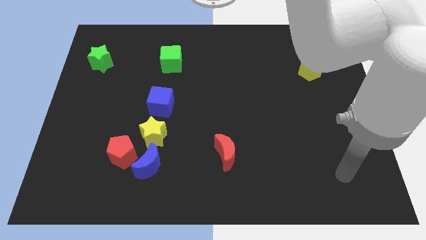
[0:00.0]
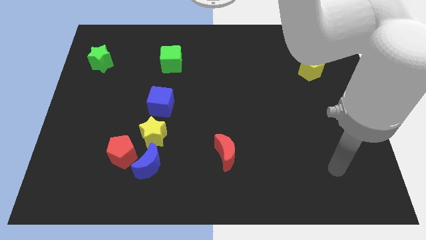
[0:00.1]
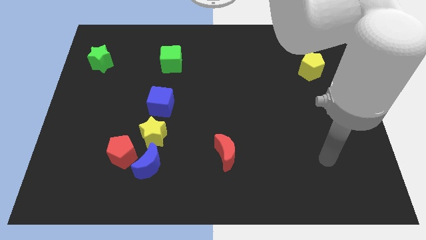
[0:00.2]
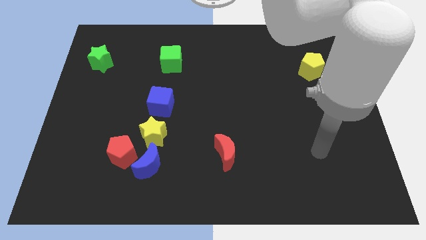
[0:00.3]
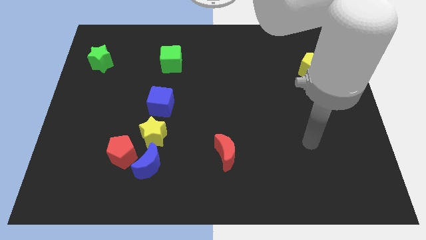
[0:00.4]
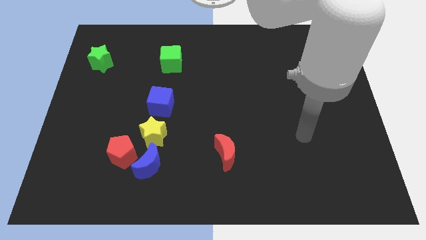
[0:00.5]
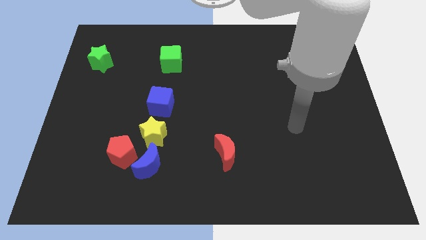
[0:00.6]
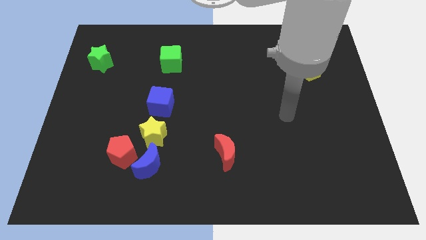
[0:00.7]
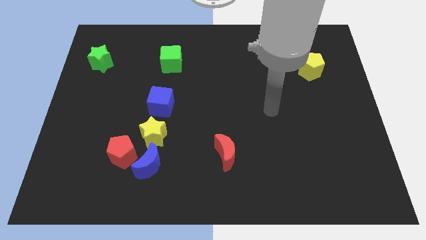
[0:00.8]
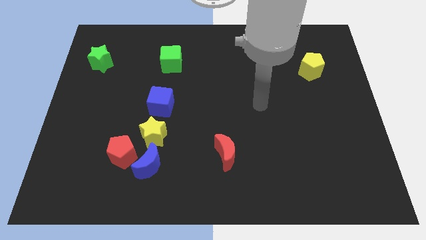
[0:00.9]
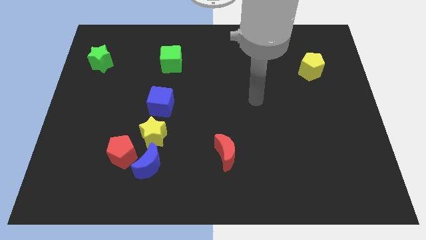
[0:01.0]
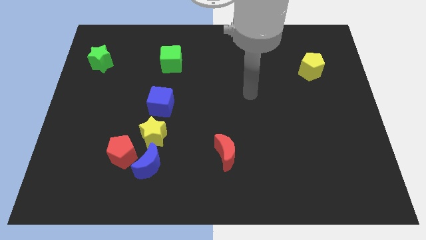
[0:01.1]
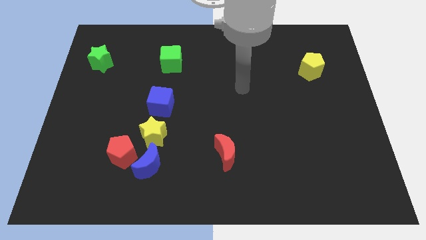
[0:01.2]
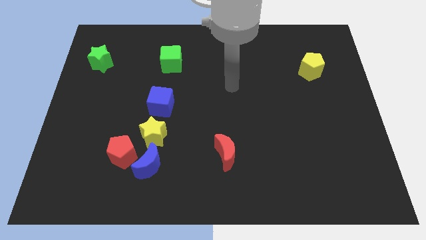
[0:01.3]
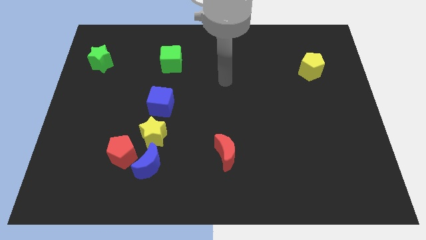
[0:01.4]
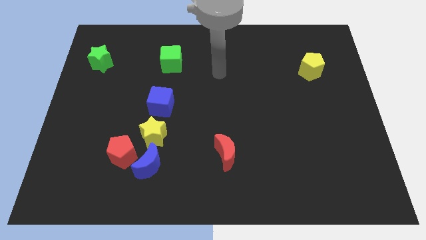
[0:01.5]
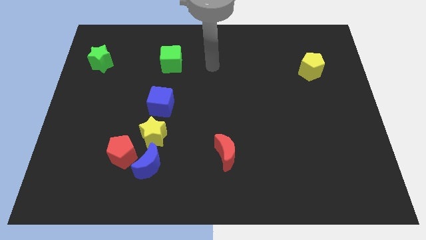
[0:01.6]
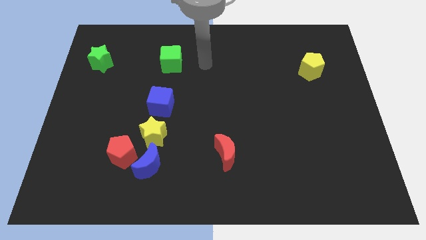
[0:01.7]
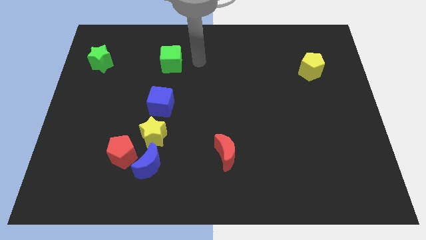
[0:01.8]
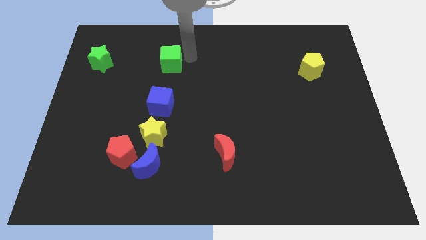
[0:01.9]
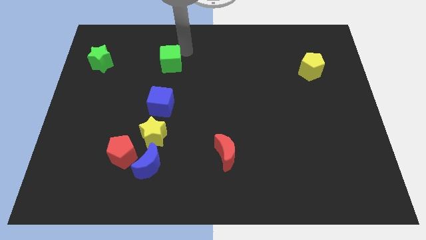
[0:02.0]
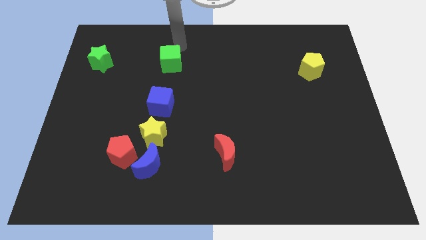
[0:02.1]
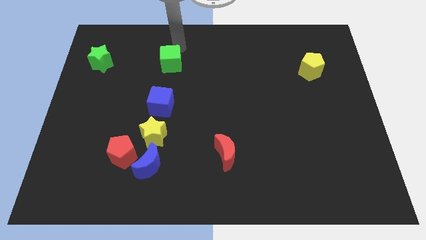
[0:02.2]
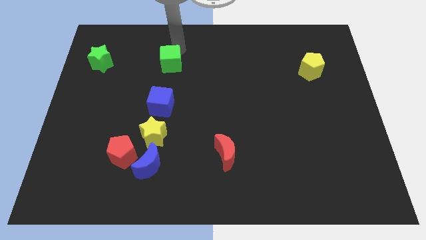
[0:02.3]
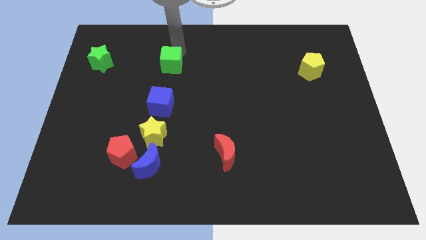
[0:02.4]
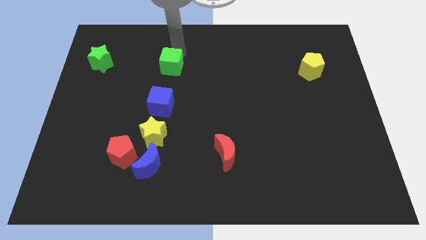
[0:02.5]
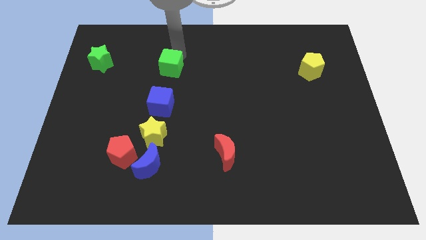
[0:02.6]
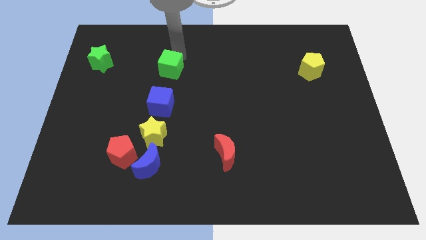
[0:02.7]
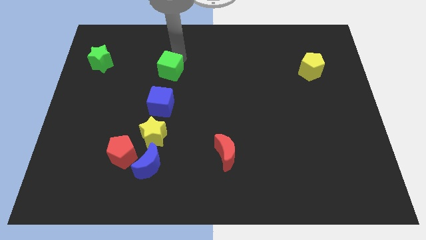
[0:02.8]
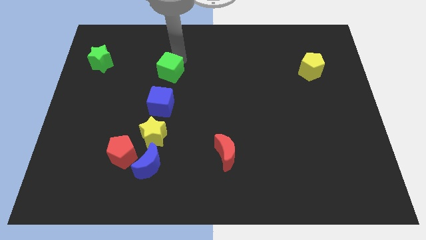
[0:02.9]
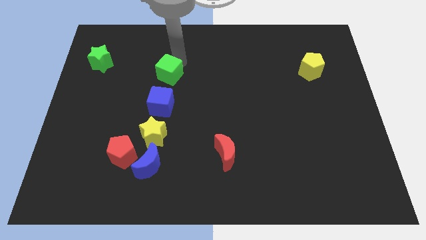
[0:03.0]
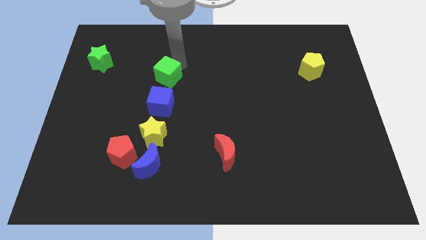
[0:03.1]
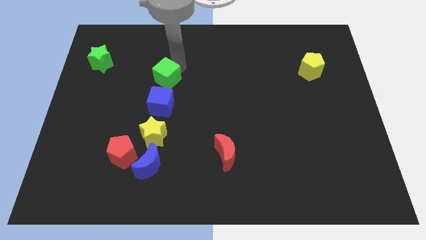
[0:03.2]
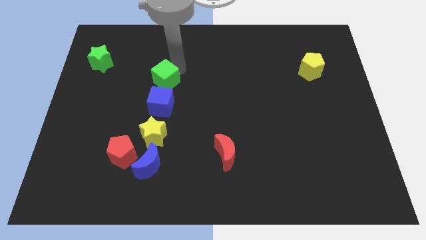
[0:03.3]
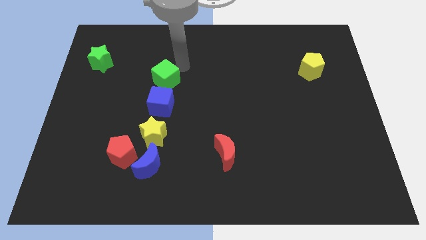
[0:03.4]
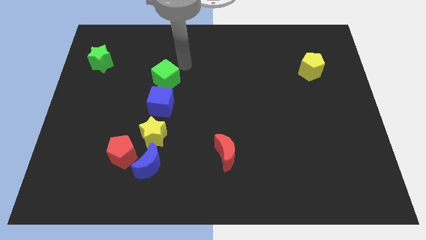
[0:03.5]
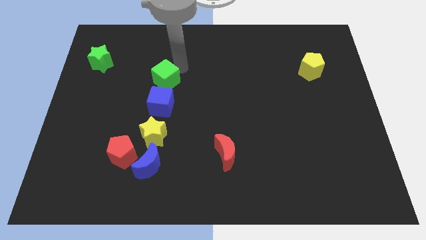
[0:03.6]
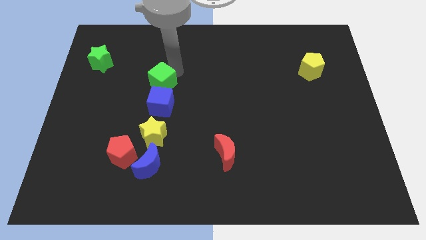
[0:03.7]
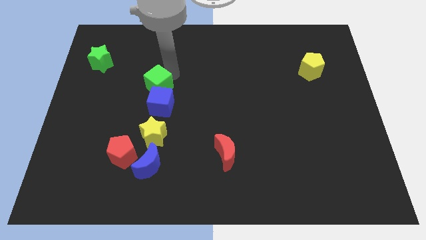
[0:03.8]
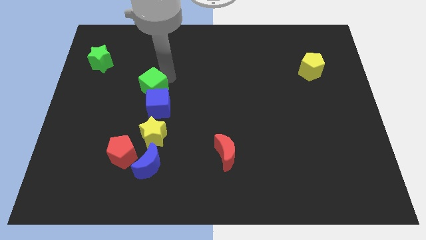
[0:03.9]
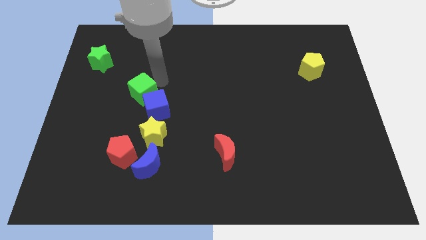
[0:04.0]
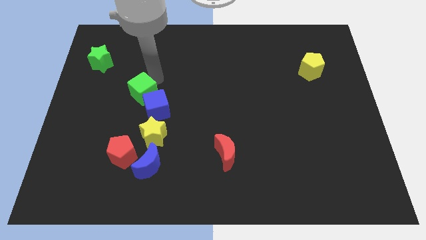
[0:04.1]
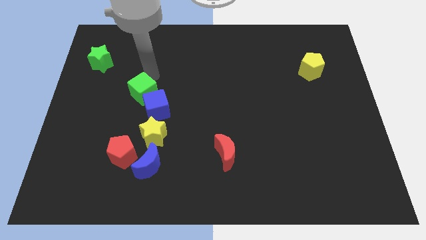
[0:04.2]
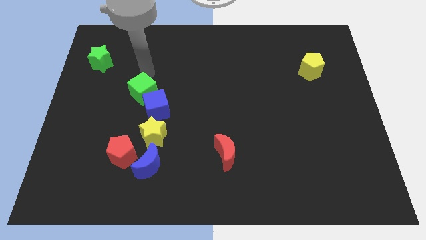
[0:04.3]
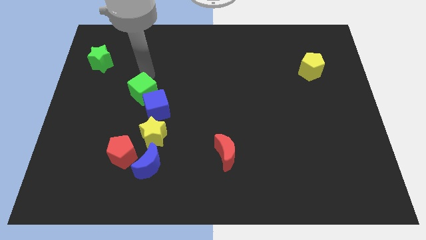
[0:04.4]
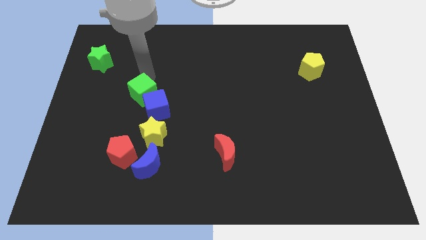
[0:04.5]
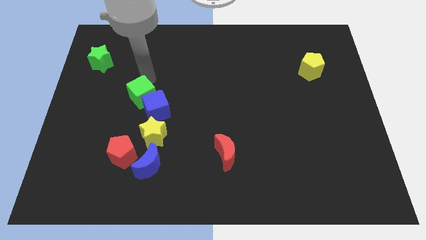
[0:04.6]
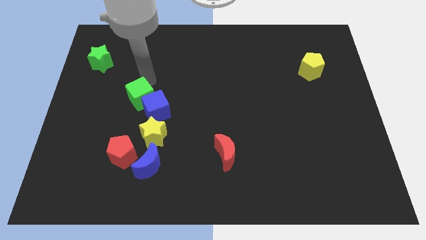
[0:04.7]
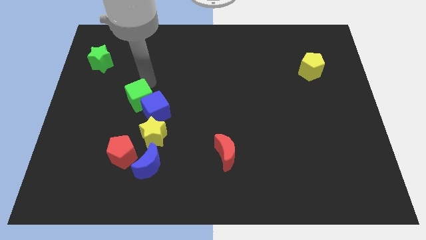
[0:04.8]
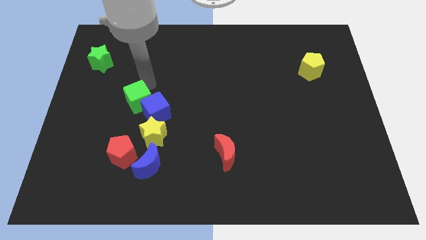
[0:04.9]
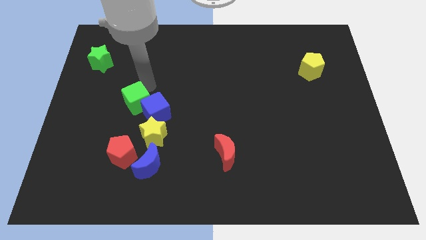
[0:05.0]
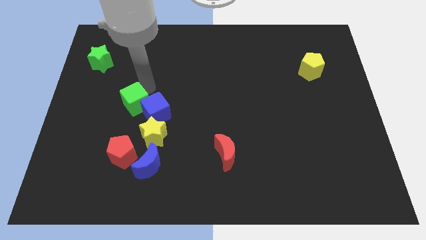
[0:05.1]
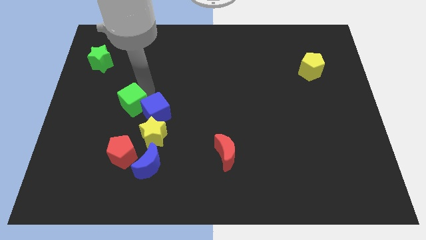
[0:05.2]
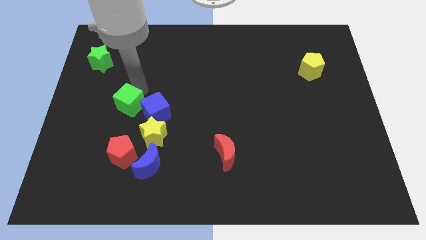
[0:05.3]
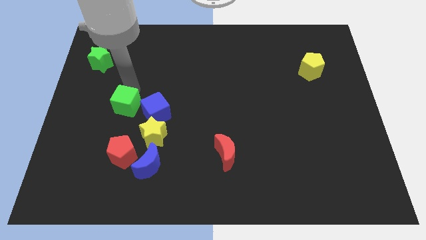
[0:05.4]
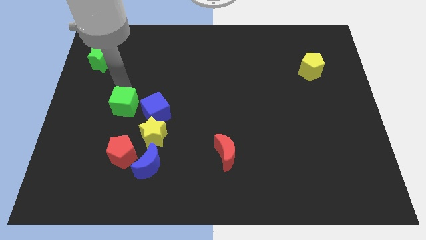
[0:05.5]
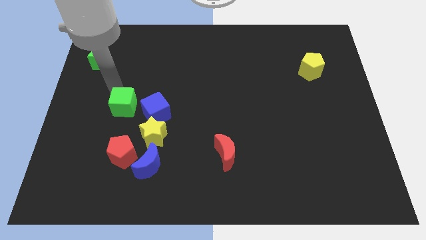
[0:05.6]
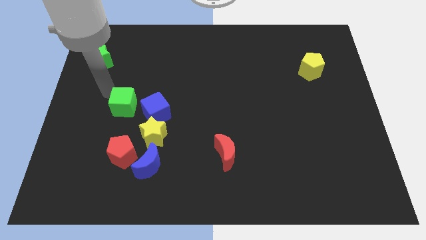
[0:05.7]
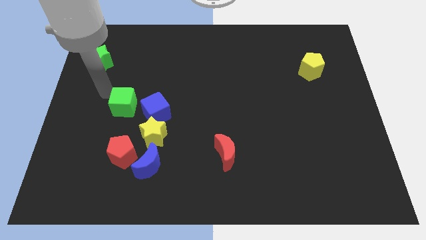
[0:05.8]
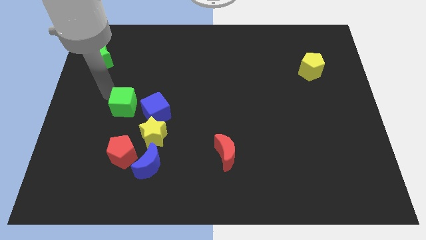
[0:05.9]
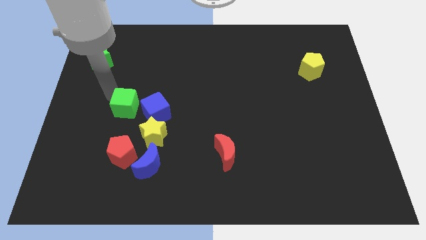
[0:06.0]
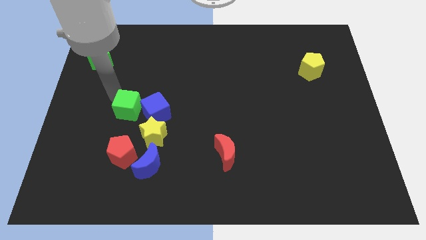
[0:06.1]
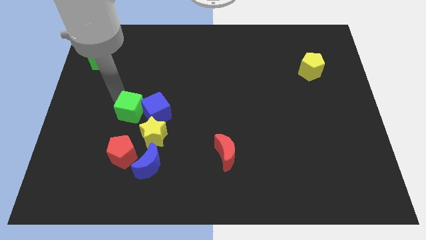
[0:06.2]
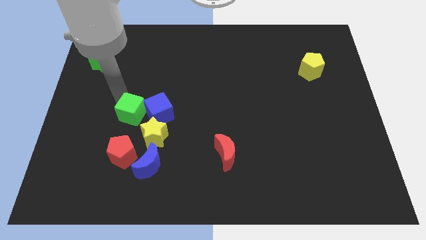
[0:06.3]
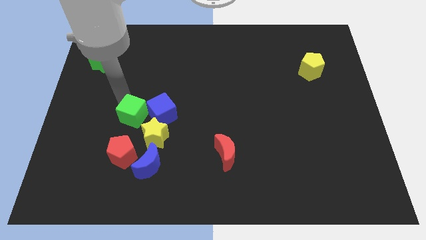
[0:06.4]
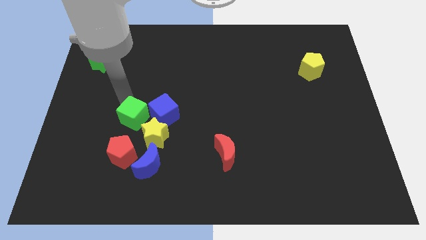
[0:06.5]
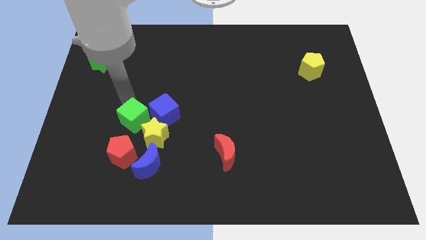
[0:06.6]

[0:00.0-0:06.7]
push the green cube to the top of the blue moon

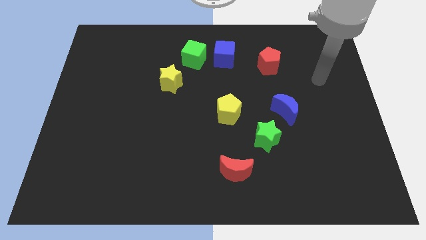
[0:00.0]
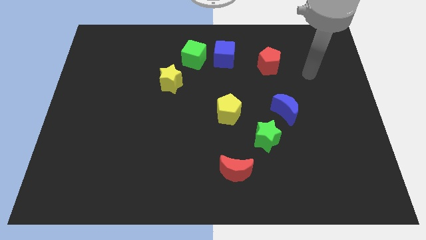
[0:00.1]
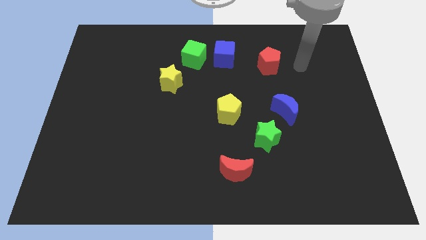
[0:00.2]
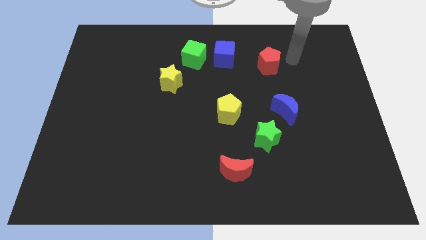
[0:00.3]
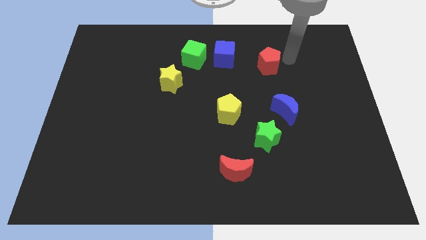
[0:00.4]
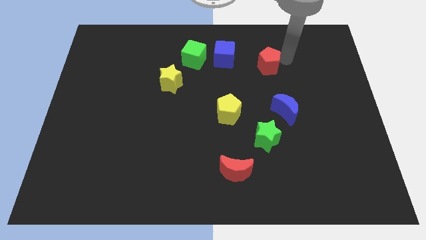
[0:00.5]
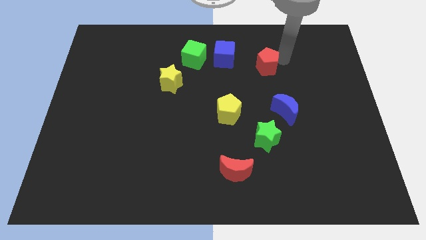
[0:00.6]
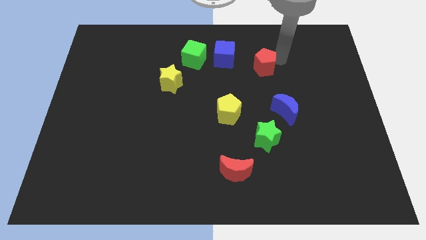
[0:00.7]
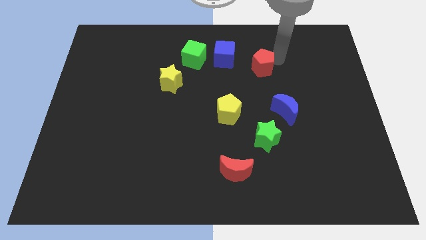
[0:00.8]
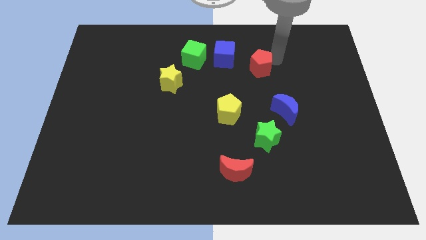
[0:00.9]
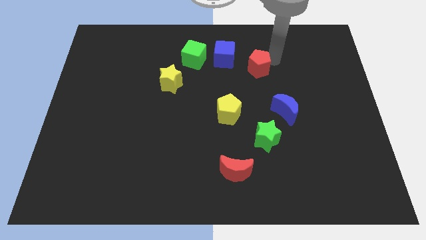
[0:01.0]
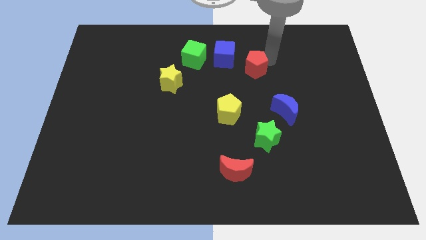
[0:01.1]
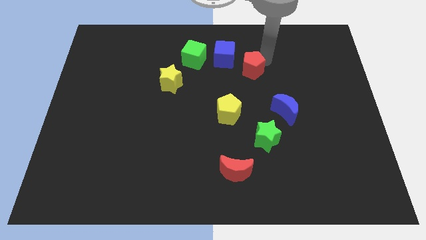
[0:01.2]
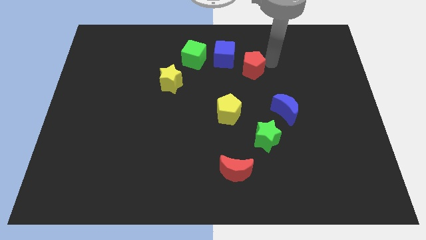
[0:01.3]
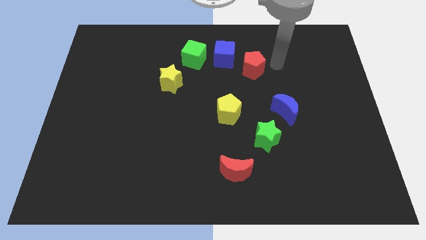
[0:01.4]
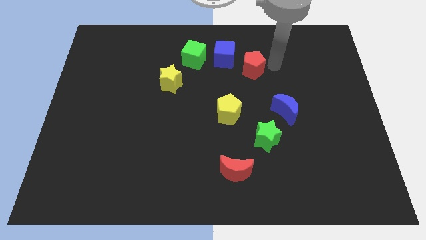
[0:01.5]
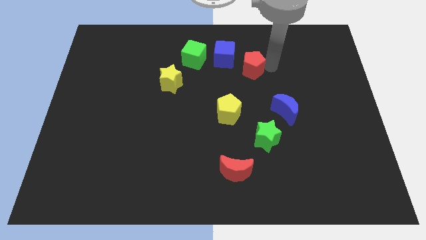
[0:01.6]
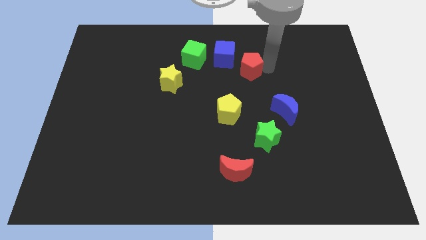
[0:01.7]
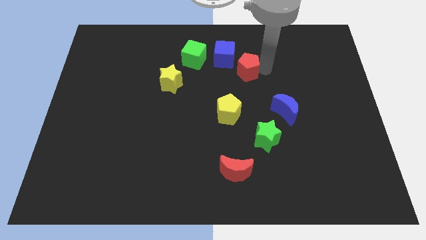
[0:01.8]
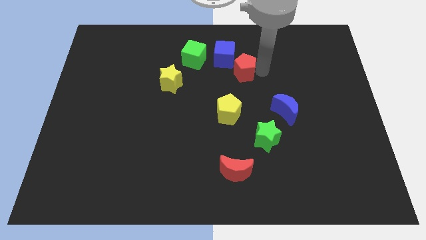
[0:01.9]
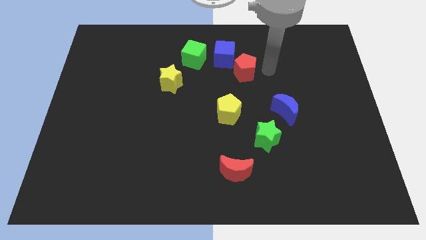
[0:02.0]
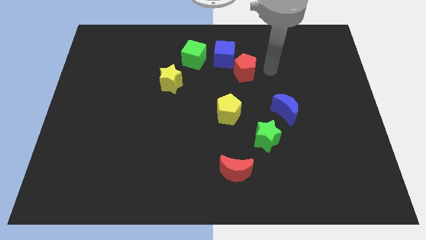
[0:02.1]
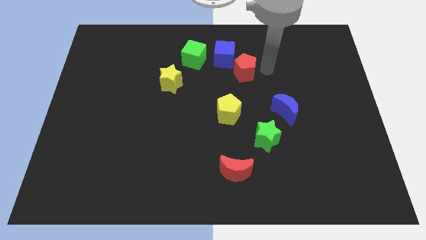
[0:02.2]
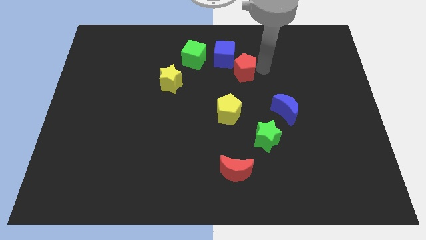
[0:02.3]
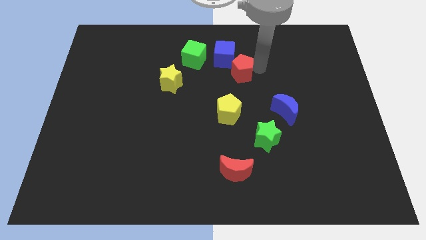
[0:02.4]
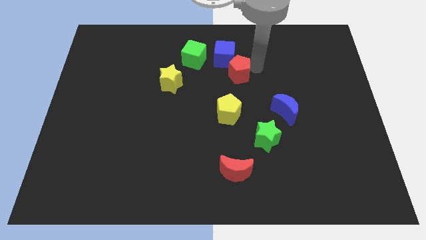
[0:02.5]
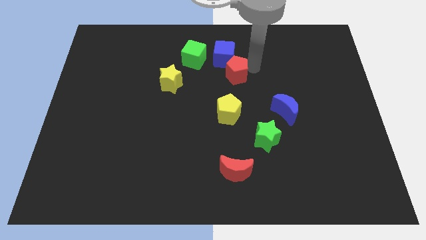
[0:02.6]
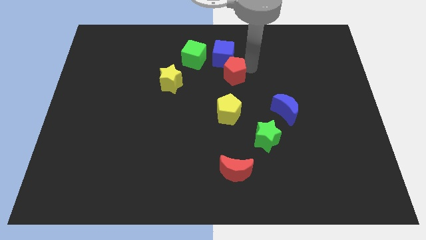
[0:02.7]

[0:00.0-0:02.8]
push the red pentagon diagonally down and to the right of the green cube
